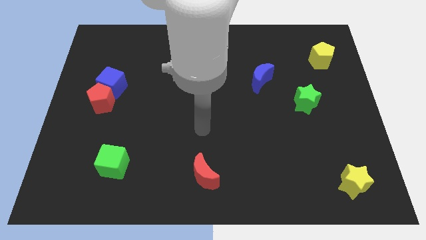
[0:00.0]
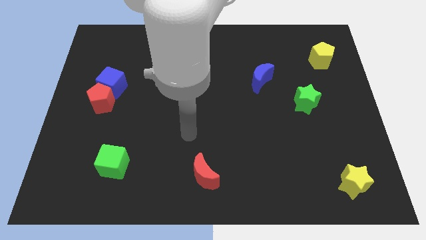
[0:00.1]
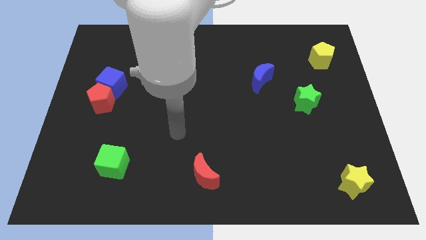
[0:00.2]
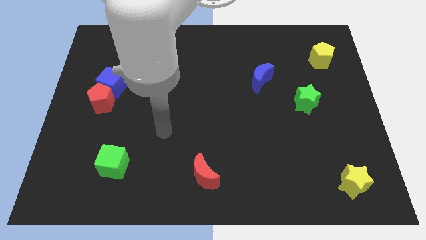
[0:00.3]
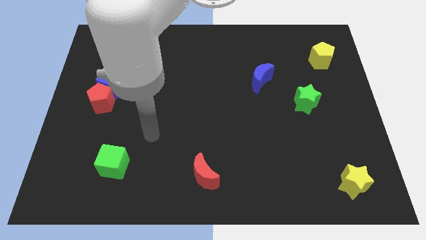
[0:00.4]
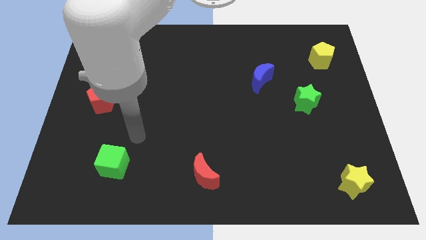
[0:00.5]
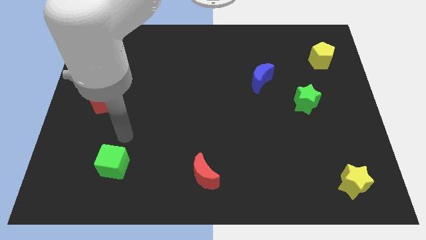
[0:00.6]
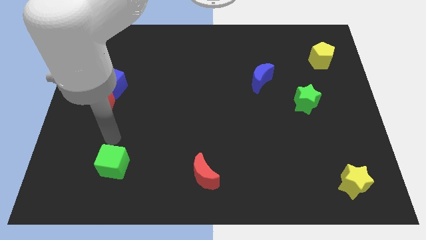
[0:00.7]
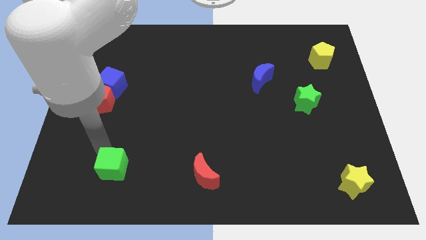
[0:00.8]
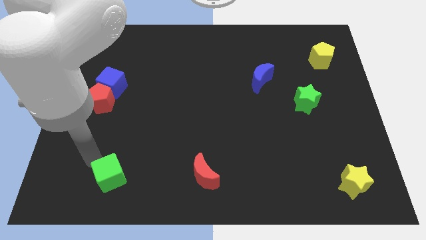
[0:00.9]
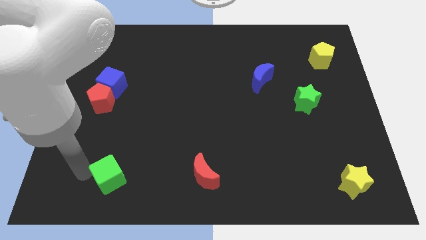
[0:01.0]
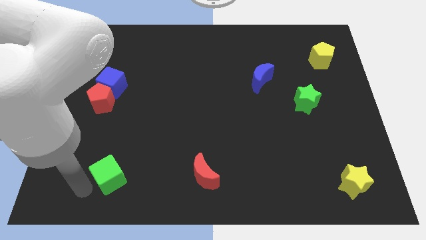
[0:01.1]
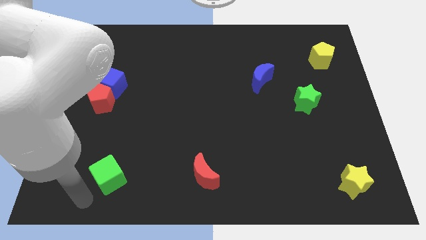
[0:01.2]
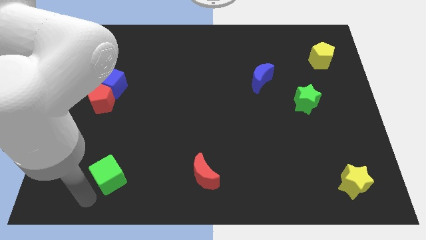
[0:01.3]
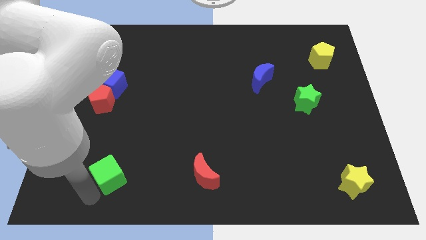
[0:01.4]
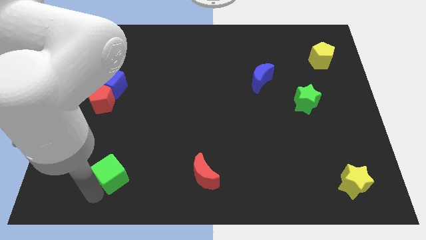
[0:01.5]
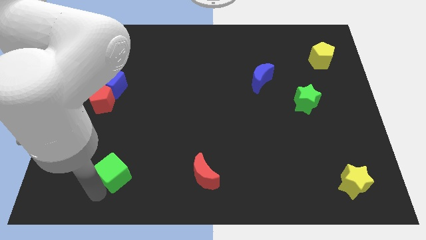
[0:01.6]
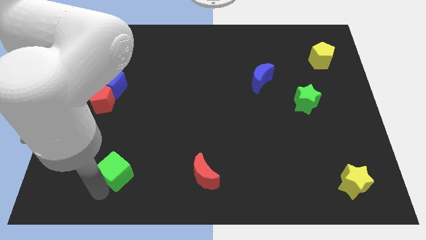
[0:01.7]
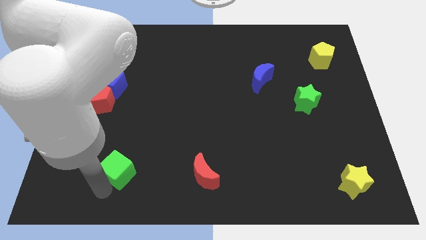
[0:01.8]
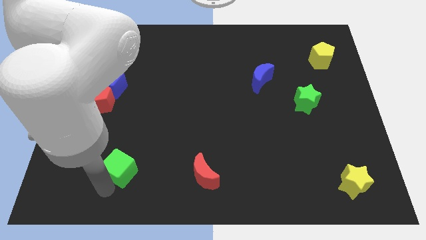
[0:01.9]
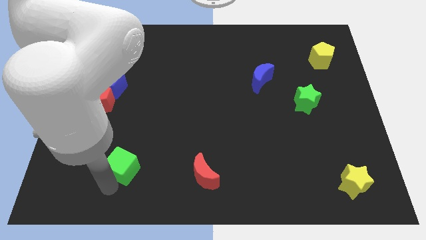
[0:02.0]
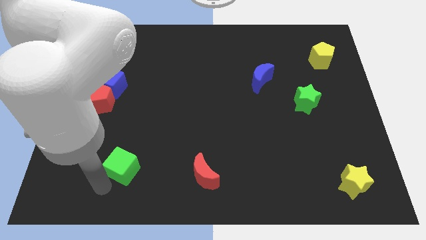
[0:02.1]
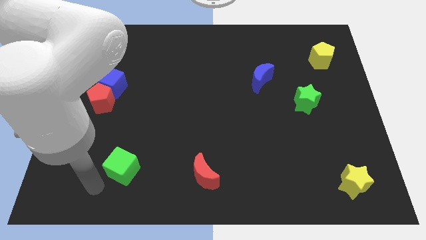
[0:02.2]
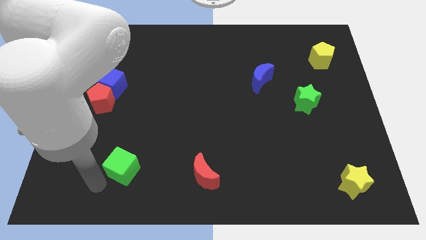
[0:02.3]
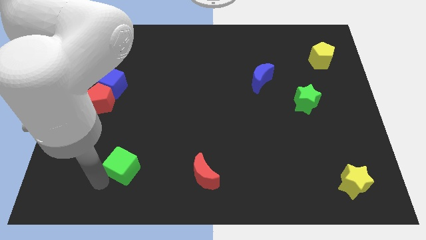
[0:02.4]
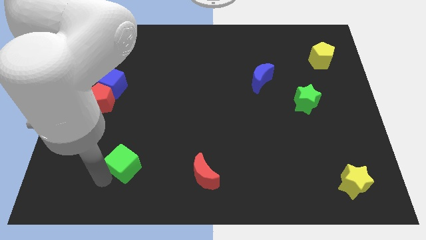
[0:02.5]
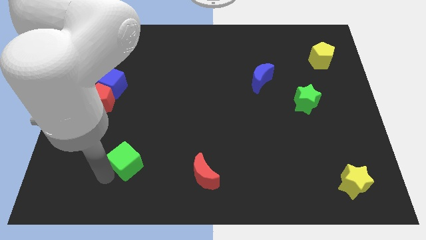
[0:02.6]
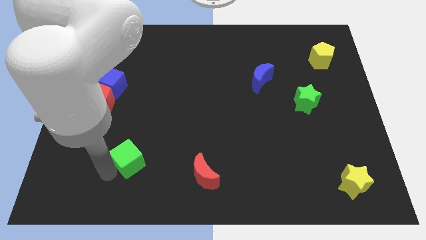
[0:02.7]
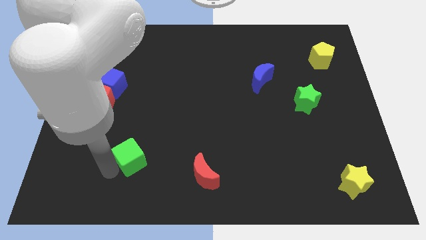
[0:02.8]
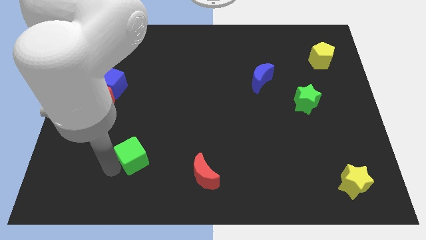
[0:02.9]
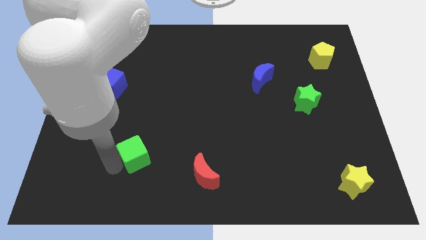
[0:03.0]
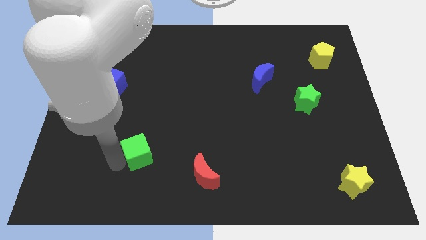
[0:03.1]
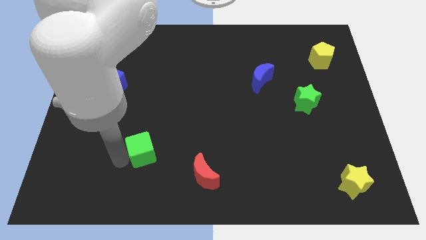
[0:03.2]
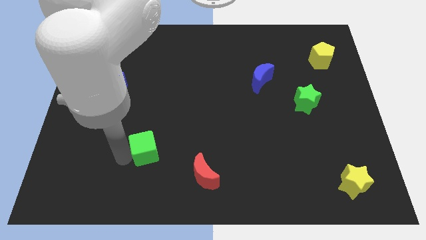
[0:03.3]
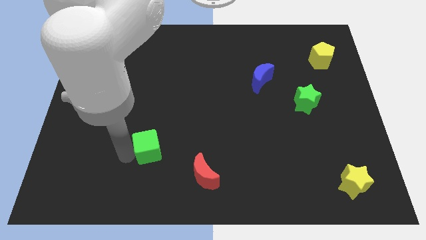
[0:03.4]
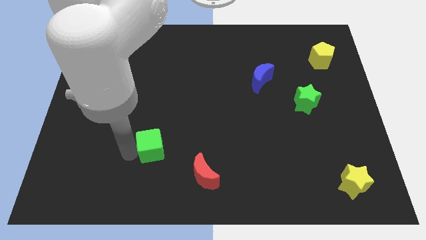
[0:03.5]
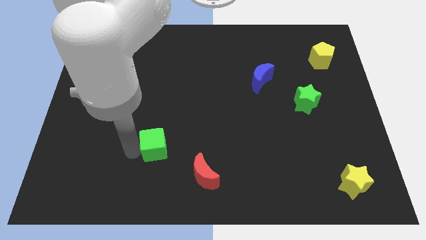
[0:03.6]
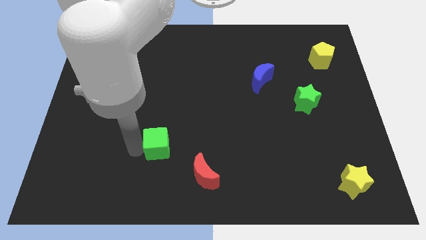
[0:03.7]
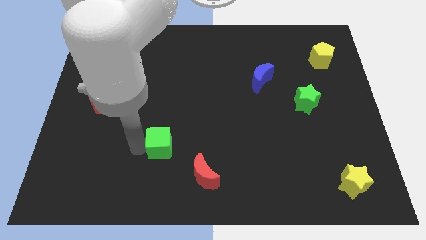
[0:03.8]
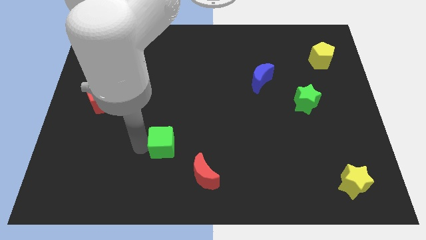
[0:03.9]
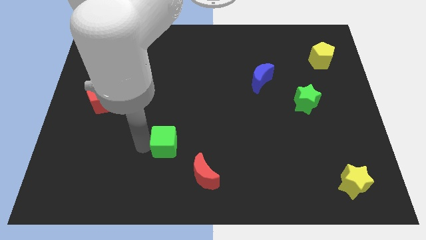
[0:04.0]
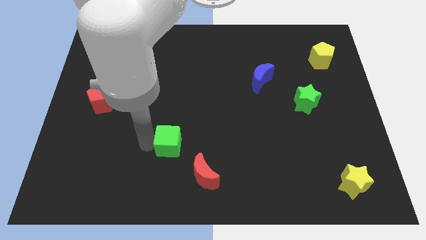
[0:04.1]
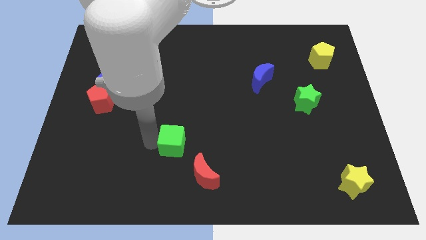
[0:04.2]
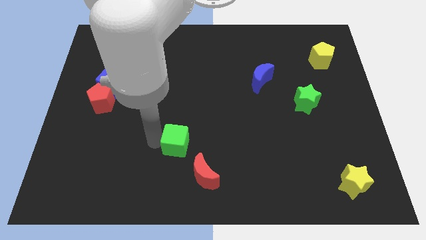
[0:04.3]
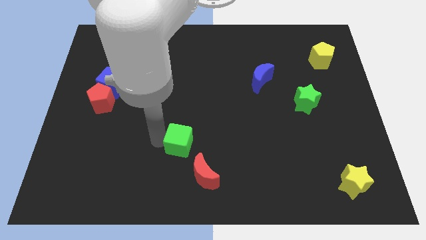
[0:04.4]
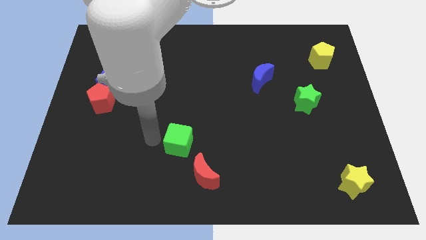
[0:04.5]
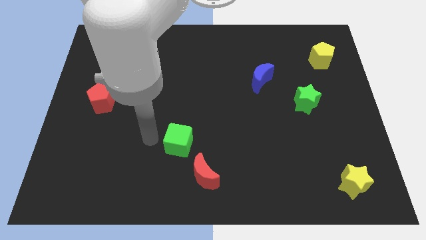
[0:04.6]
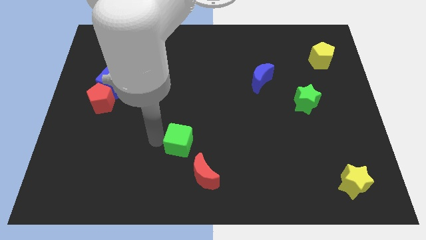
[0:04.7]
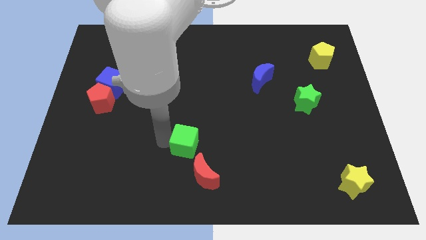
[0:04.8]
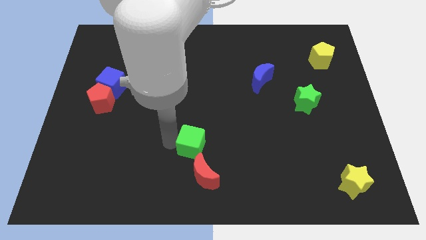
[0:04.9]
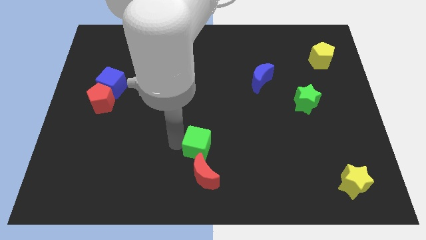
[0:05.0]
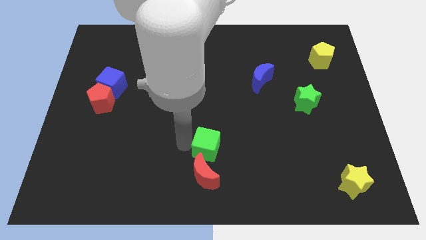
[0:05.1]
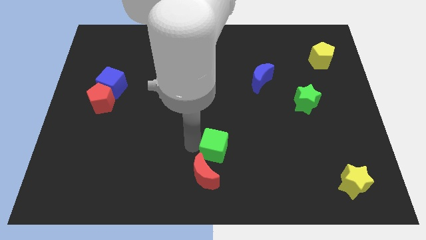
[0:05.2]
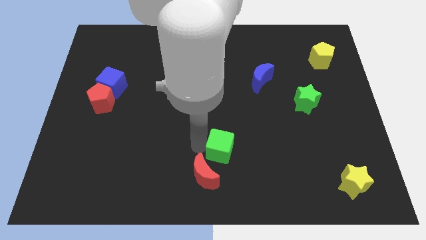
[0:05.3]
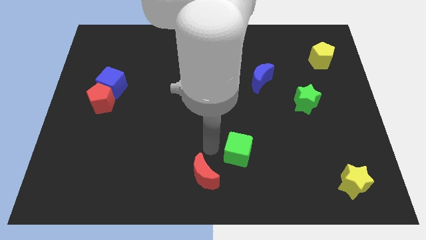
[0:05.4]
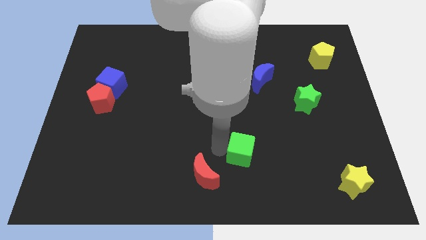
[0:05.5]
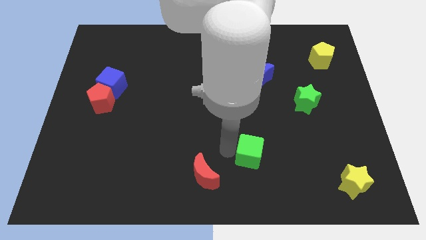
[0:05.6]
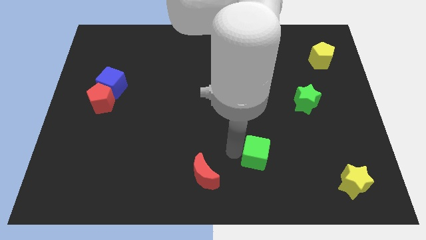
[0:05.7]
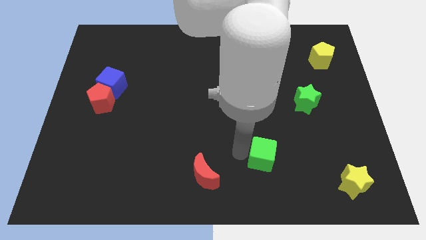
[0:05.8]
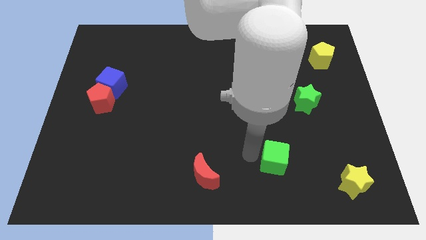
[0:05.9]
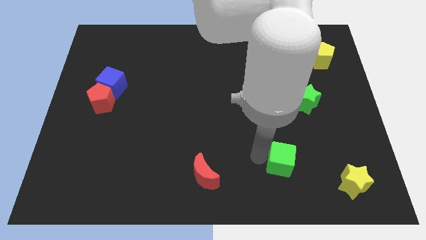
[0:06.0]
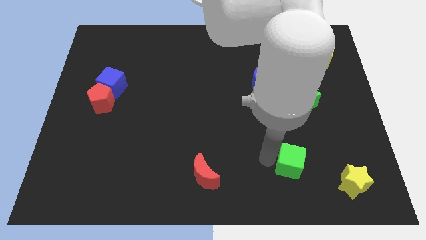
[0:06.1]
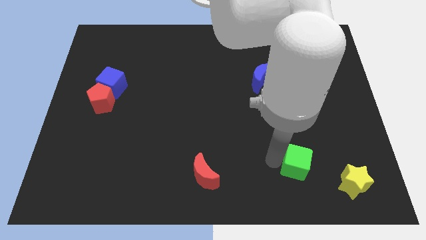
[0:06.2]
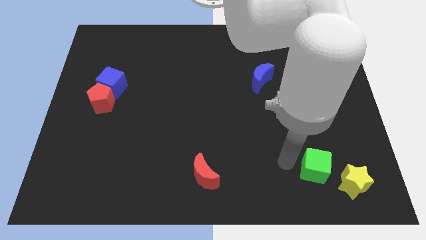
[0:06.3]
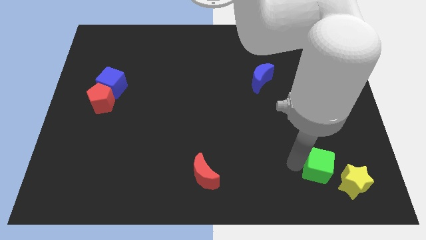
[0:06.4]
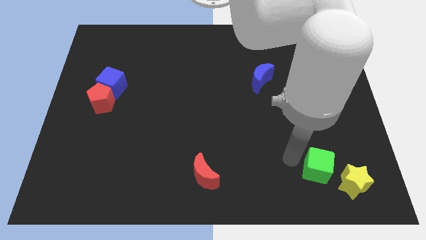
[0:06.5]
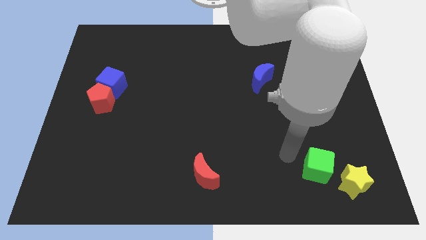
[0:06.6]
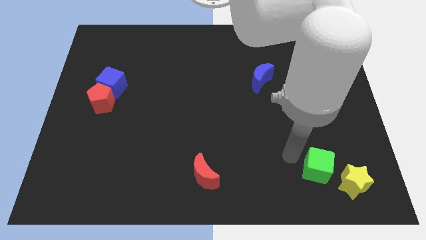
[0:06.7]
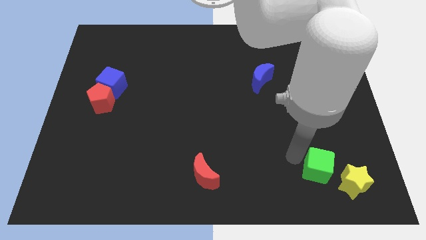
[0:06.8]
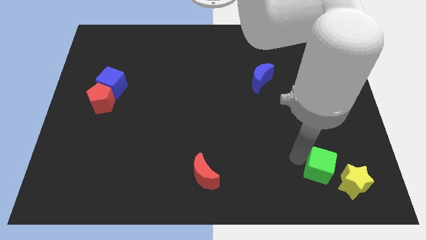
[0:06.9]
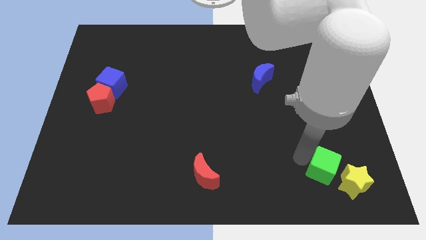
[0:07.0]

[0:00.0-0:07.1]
push the green cube close to the yellow star

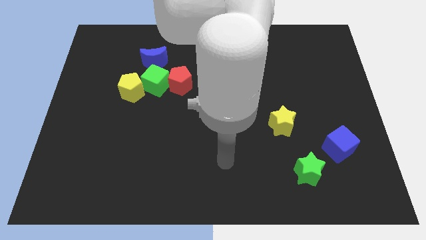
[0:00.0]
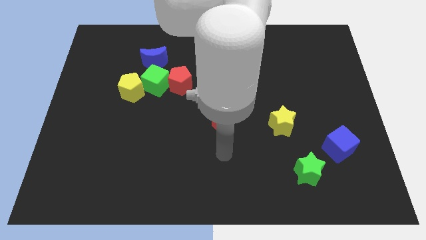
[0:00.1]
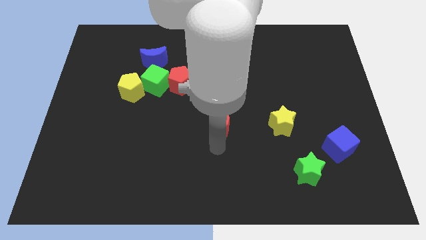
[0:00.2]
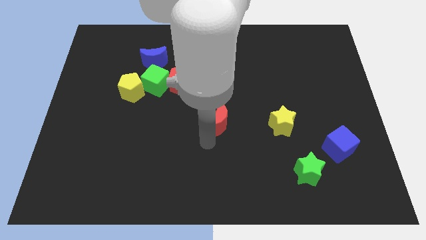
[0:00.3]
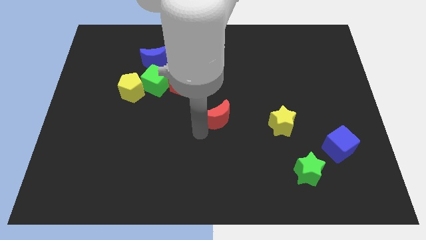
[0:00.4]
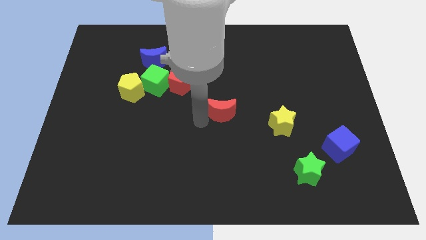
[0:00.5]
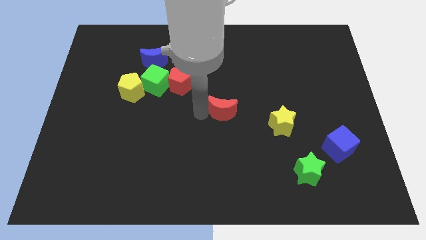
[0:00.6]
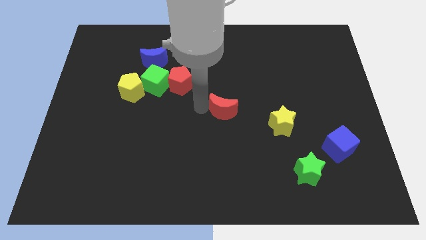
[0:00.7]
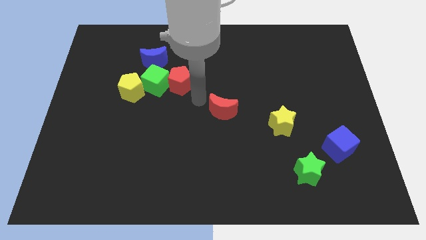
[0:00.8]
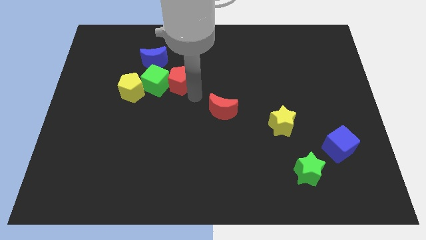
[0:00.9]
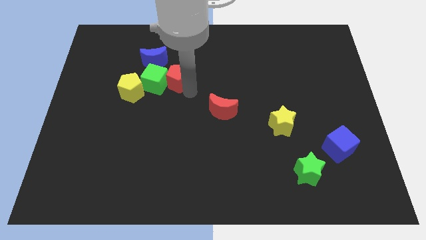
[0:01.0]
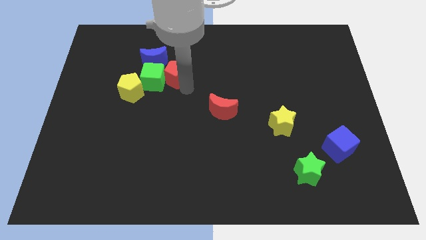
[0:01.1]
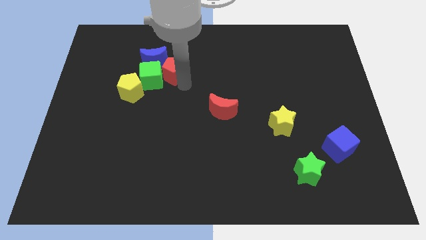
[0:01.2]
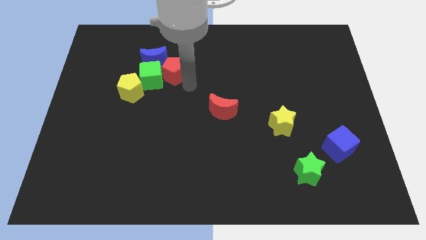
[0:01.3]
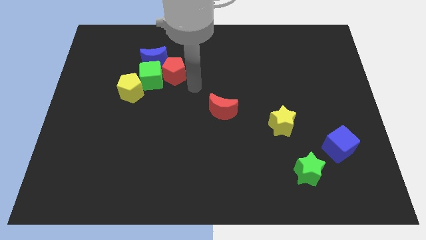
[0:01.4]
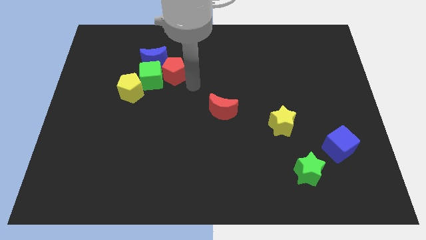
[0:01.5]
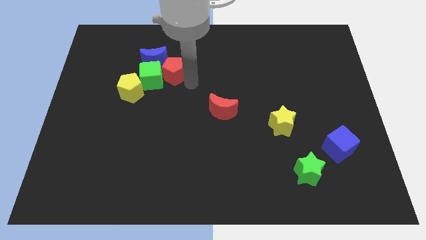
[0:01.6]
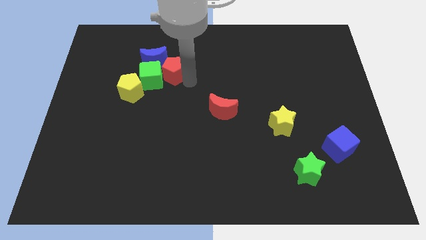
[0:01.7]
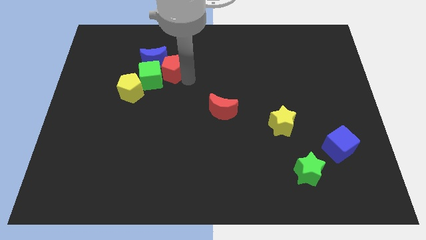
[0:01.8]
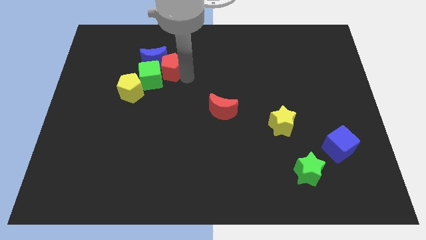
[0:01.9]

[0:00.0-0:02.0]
slide the red pentagon next to the blue moon
